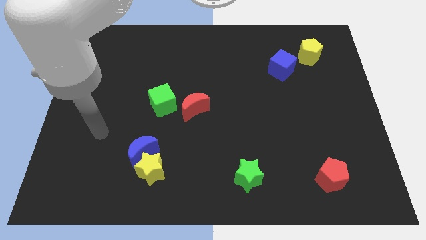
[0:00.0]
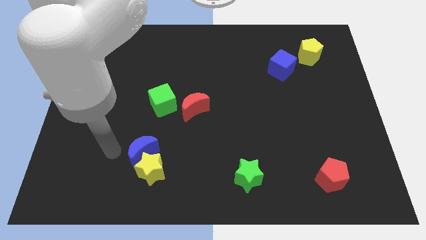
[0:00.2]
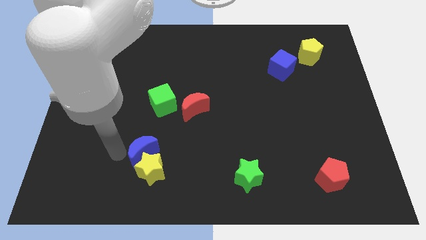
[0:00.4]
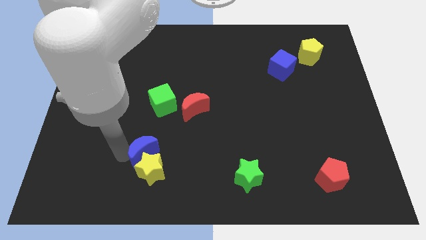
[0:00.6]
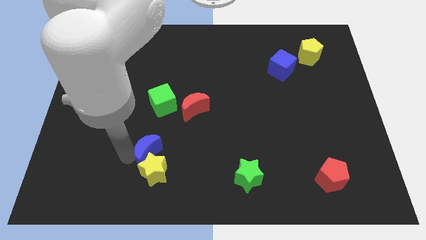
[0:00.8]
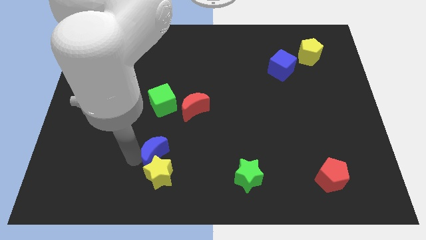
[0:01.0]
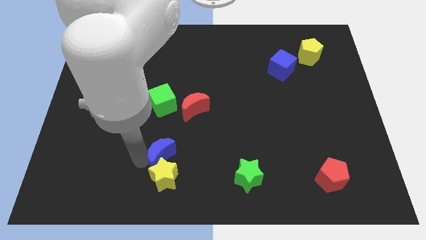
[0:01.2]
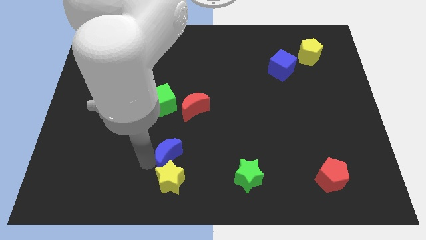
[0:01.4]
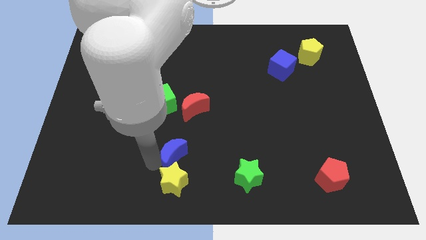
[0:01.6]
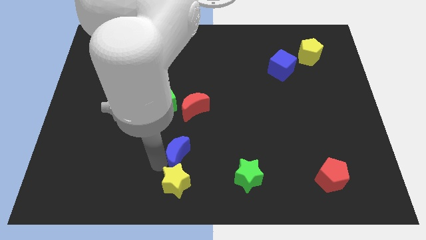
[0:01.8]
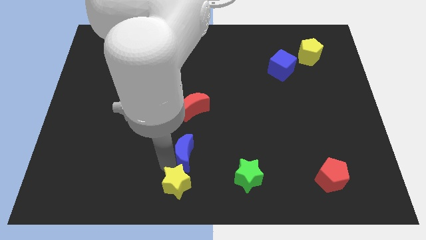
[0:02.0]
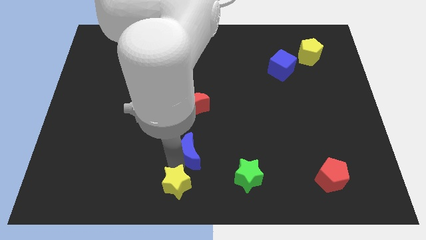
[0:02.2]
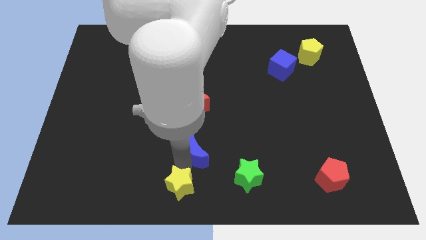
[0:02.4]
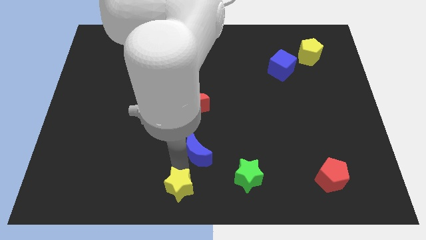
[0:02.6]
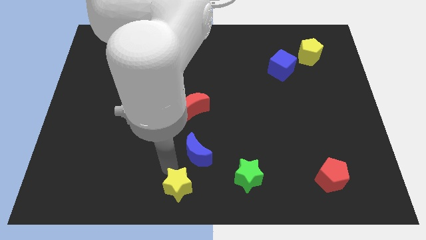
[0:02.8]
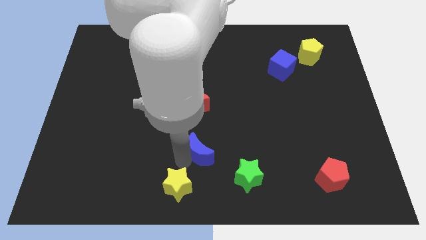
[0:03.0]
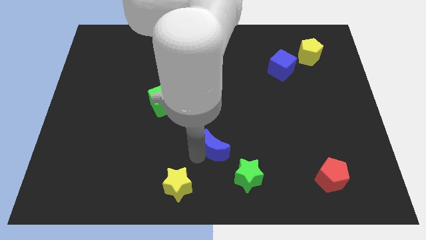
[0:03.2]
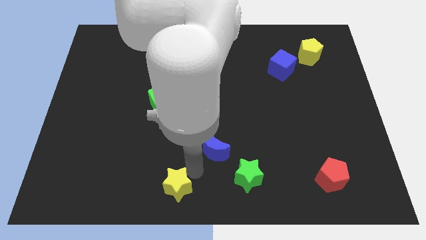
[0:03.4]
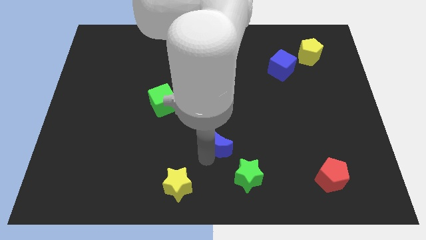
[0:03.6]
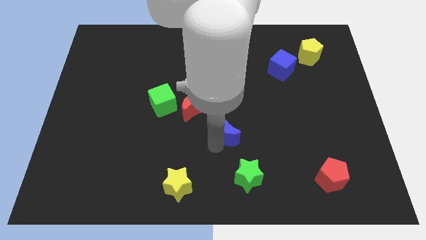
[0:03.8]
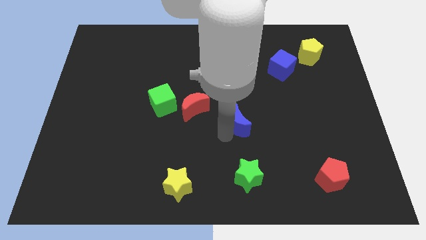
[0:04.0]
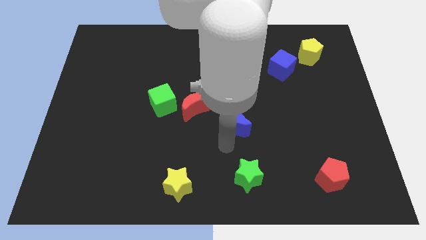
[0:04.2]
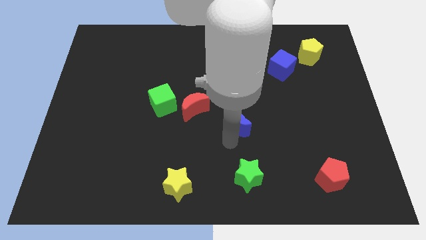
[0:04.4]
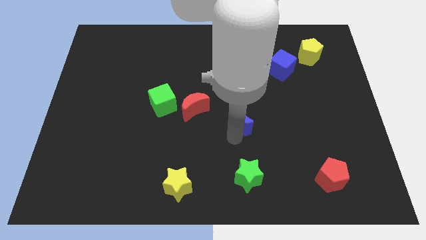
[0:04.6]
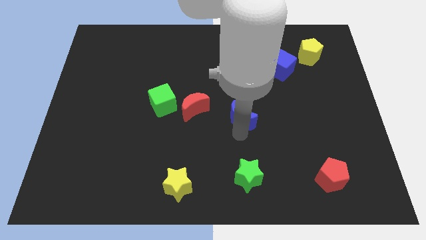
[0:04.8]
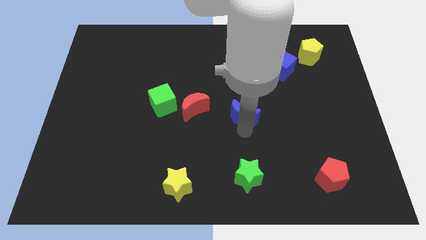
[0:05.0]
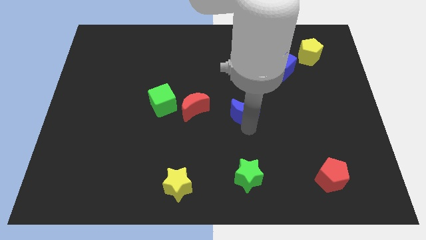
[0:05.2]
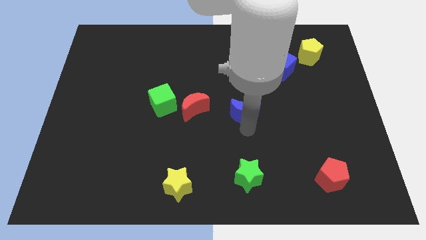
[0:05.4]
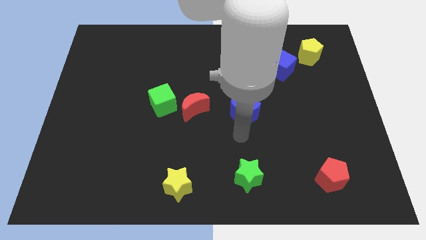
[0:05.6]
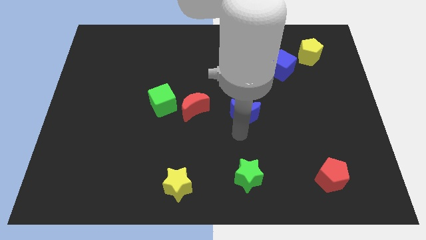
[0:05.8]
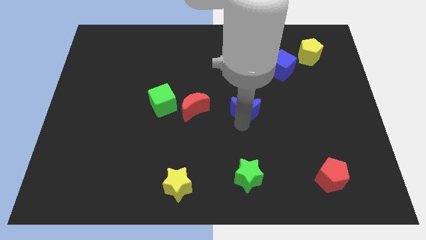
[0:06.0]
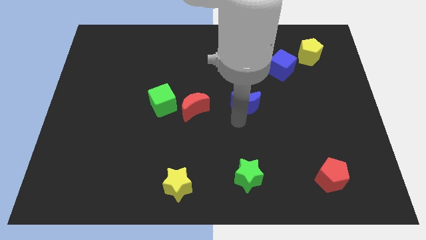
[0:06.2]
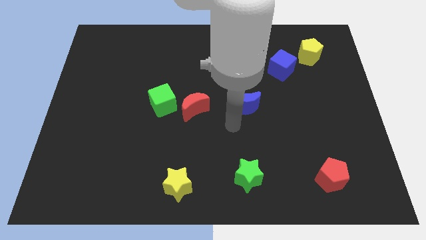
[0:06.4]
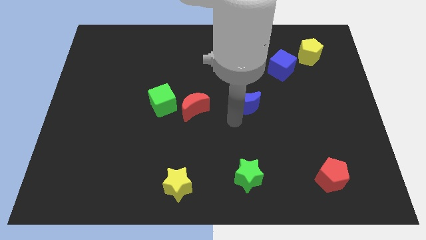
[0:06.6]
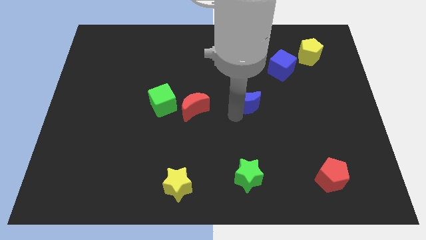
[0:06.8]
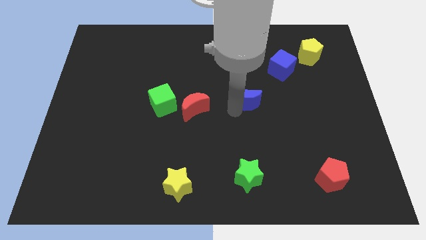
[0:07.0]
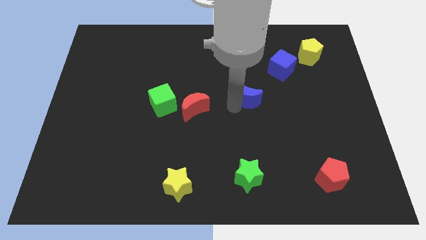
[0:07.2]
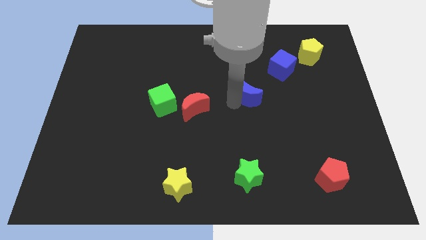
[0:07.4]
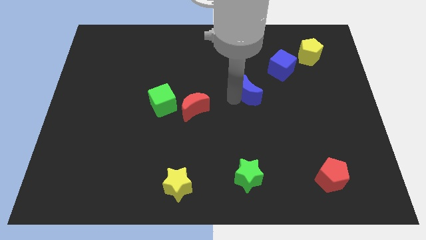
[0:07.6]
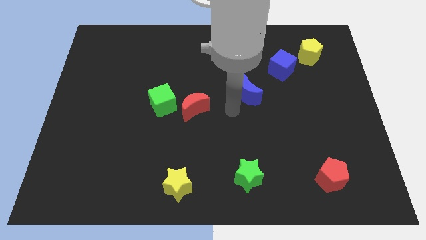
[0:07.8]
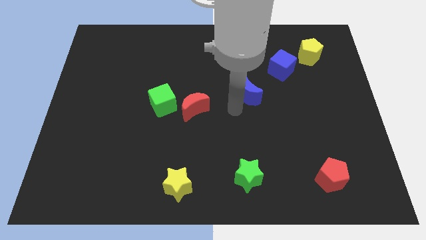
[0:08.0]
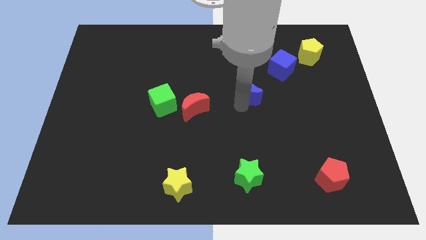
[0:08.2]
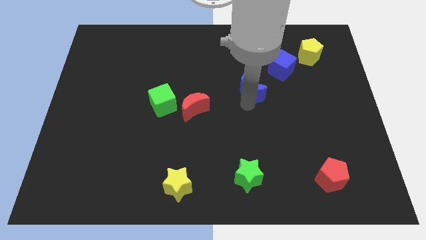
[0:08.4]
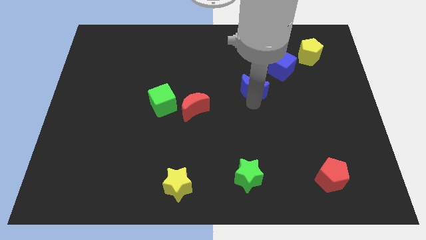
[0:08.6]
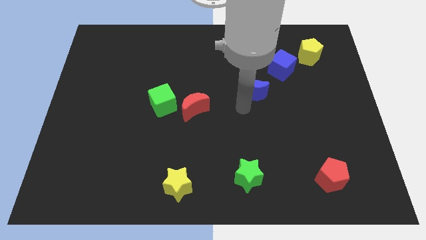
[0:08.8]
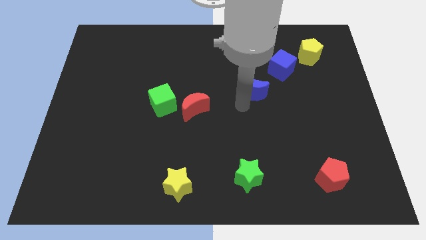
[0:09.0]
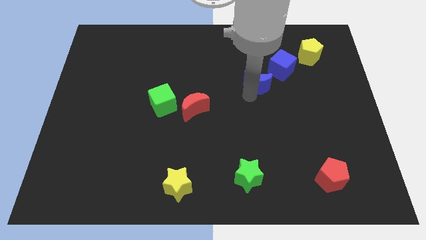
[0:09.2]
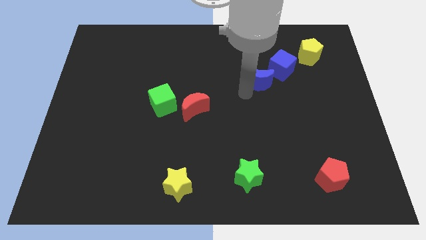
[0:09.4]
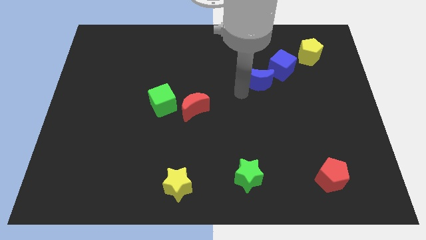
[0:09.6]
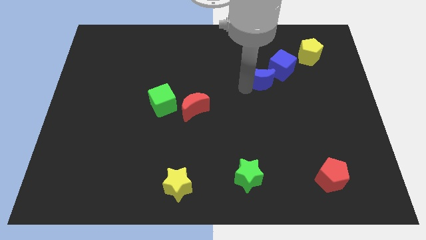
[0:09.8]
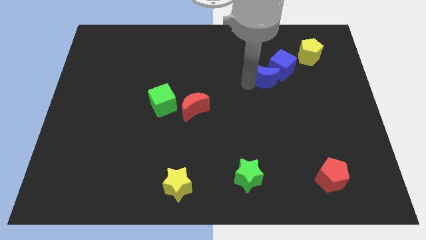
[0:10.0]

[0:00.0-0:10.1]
slide the blue moon close to the blue cube

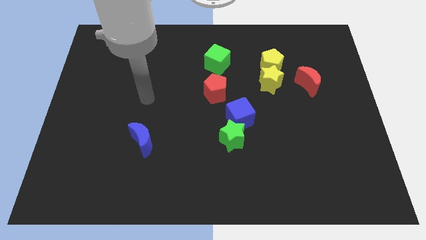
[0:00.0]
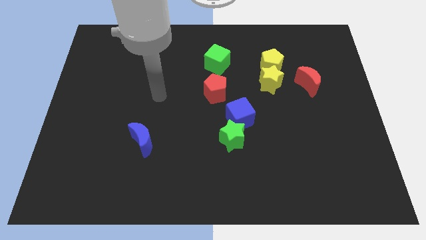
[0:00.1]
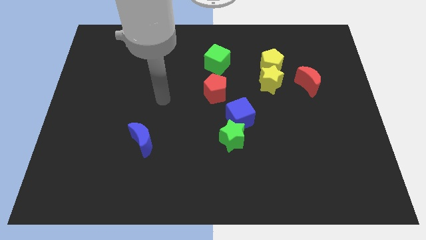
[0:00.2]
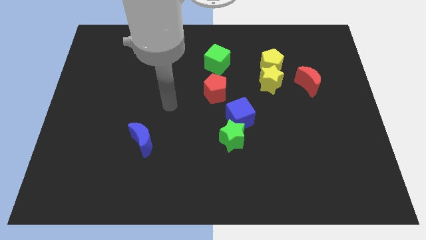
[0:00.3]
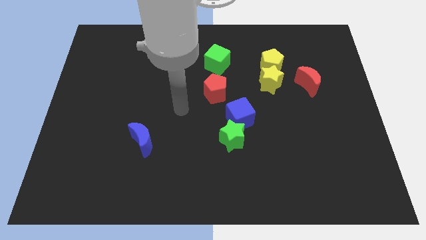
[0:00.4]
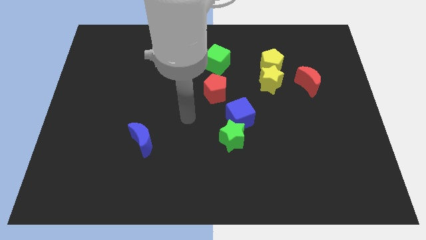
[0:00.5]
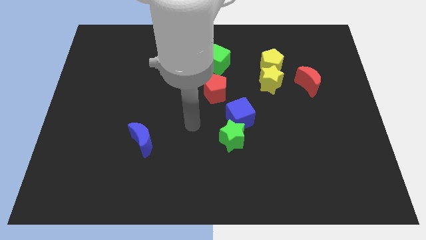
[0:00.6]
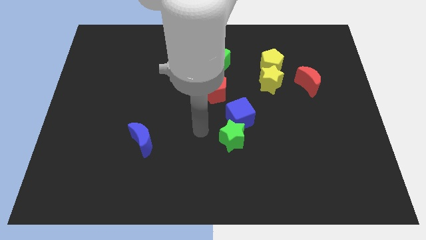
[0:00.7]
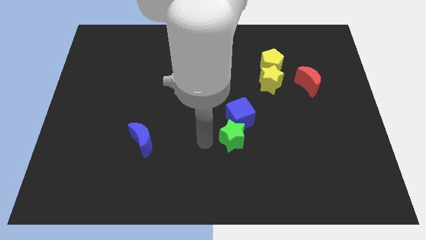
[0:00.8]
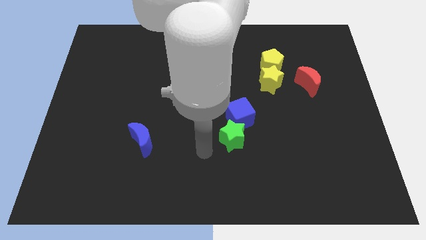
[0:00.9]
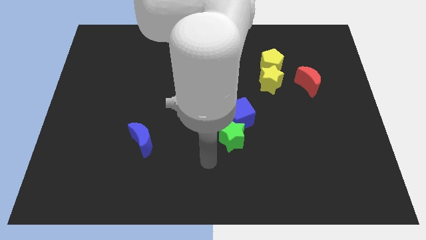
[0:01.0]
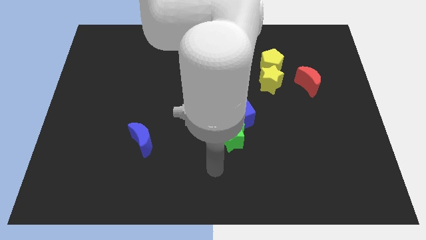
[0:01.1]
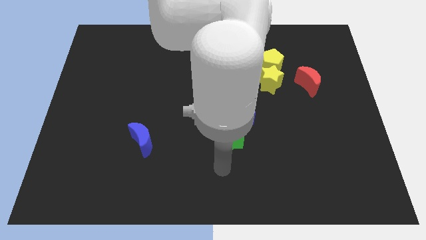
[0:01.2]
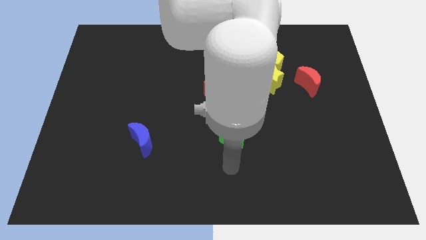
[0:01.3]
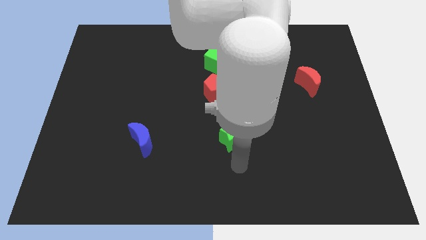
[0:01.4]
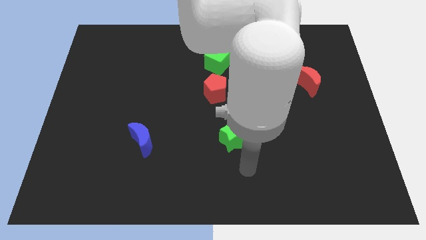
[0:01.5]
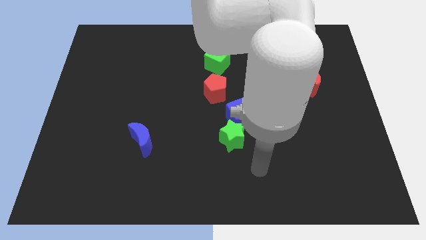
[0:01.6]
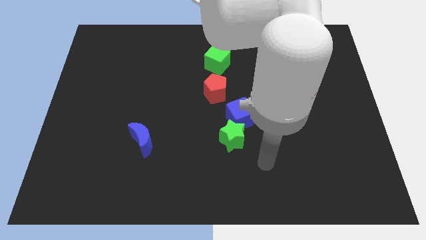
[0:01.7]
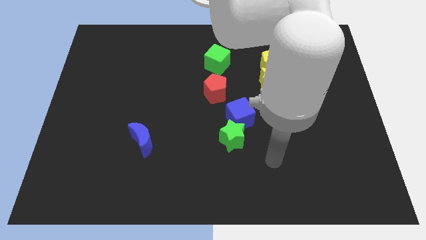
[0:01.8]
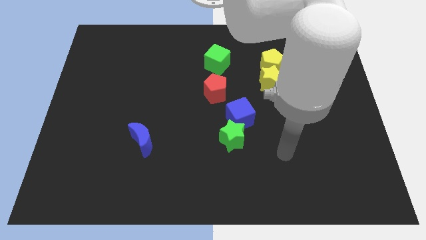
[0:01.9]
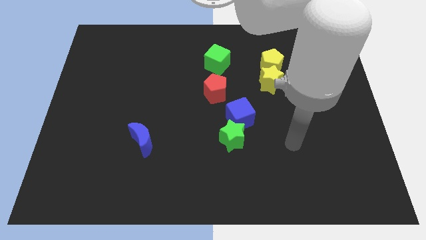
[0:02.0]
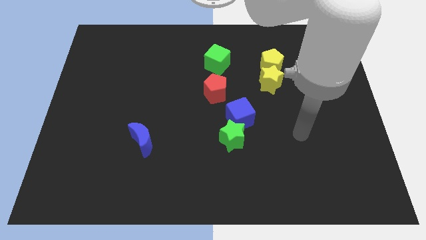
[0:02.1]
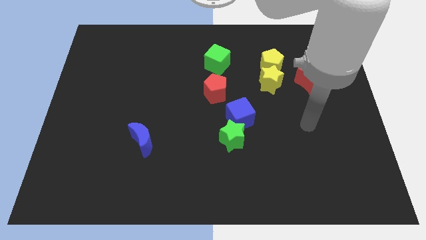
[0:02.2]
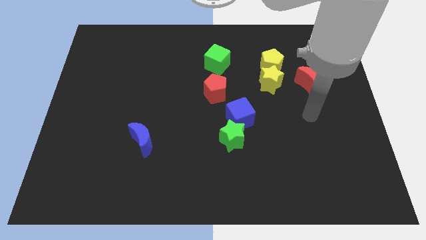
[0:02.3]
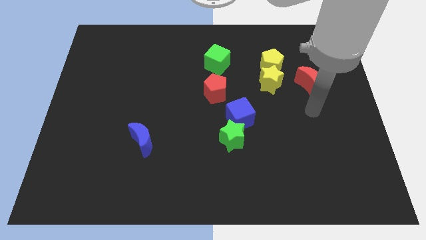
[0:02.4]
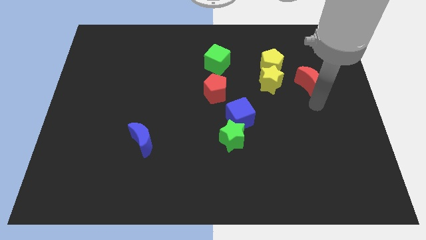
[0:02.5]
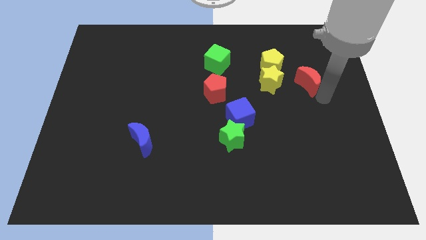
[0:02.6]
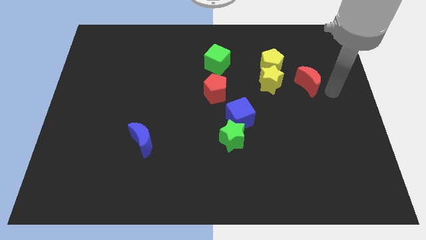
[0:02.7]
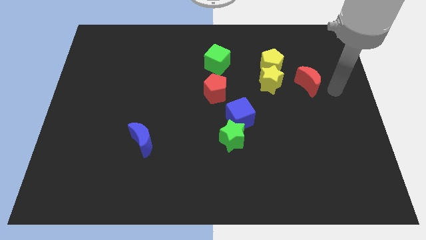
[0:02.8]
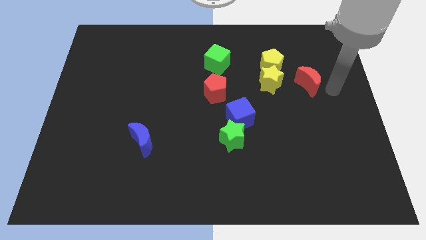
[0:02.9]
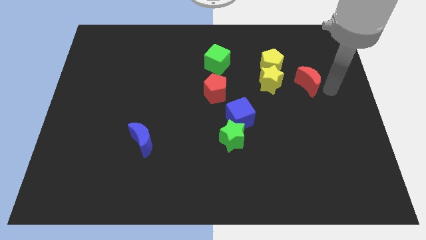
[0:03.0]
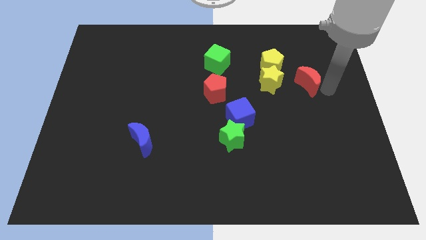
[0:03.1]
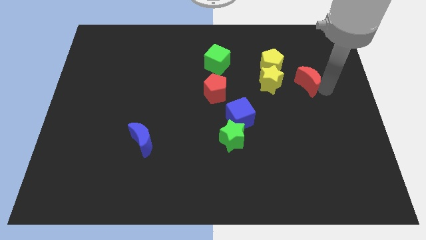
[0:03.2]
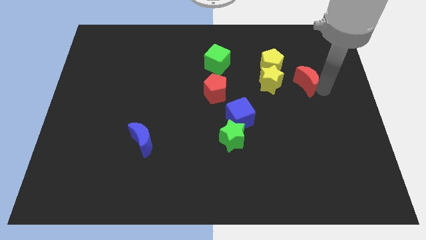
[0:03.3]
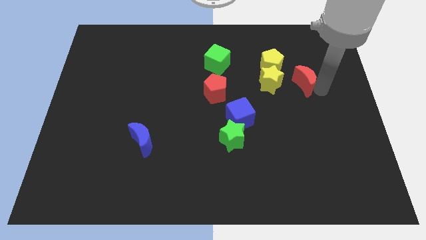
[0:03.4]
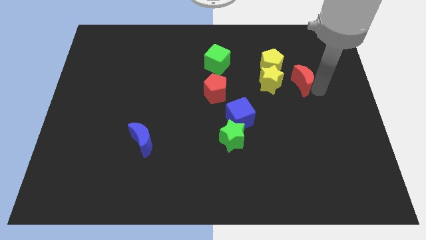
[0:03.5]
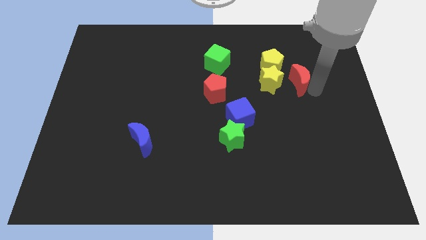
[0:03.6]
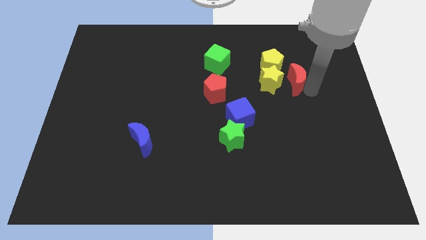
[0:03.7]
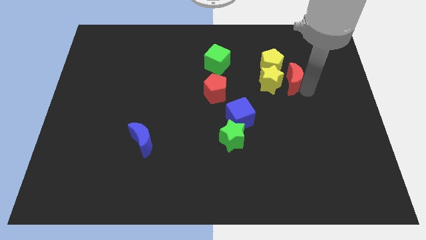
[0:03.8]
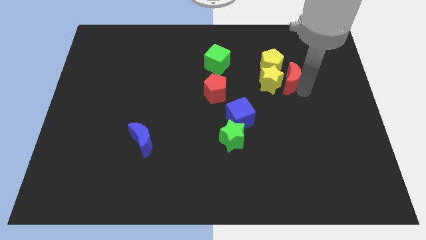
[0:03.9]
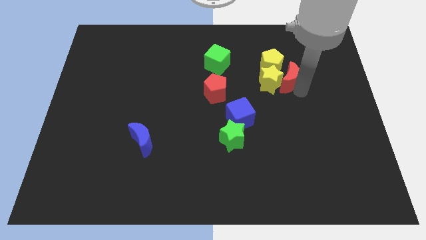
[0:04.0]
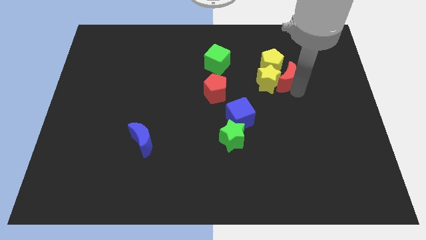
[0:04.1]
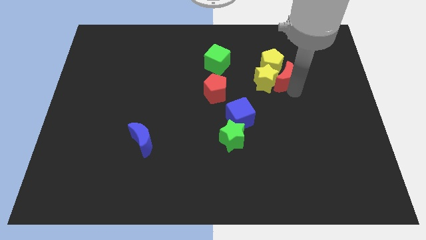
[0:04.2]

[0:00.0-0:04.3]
slide the red moon close to the yellow pentagon
